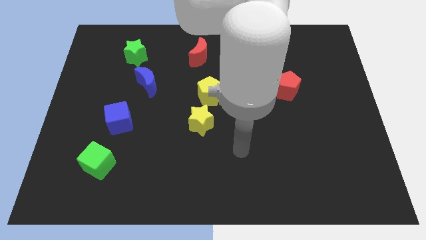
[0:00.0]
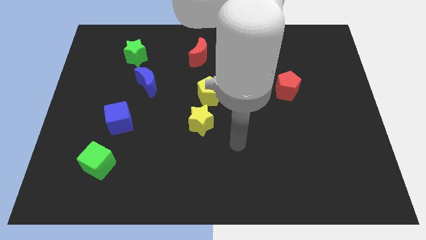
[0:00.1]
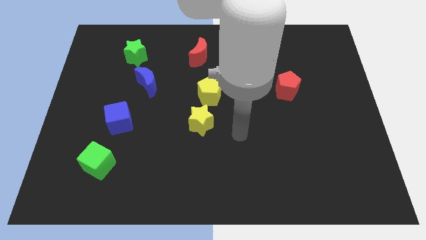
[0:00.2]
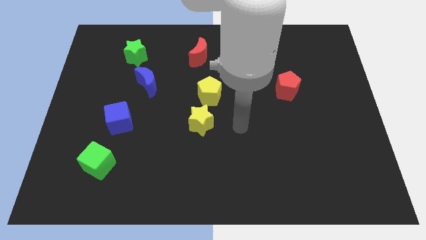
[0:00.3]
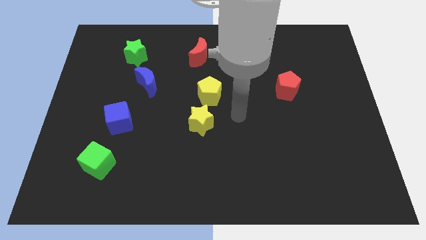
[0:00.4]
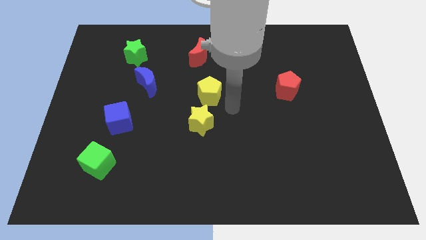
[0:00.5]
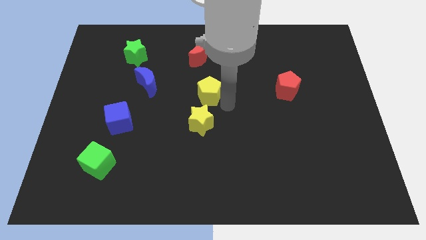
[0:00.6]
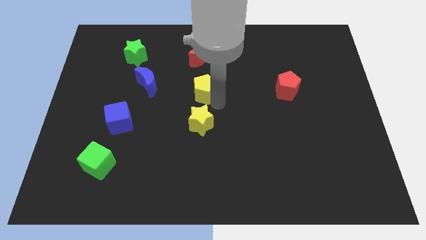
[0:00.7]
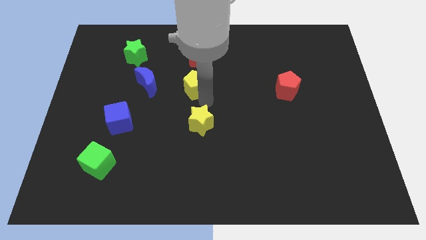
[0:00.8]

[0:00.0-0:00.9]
move the yellow star away from the yellow pentagon

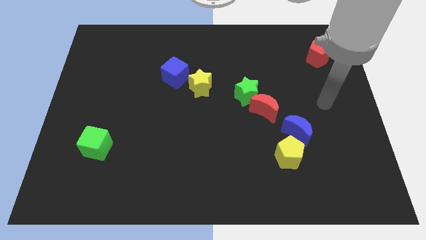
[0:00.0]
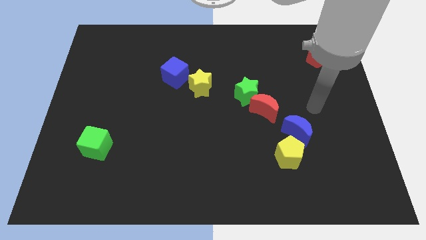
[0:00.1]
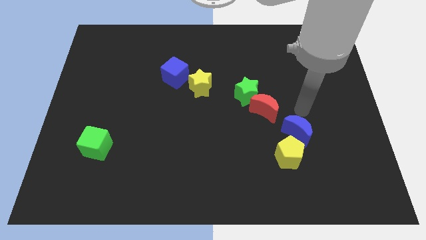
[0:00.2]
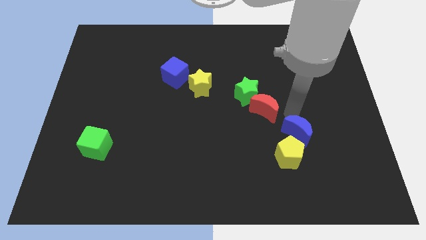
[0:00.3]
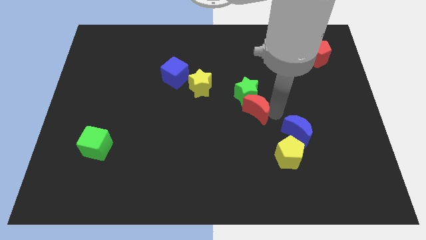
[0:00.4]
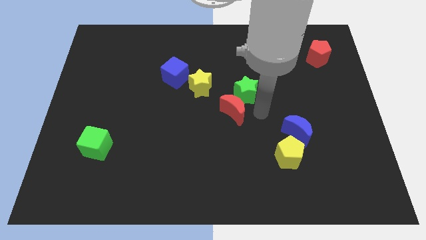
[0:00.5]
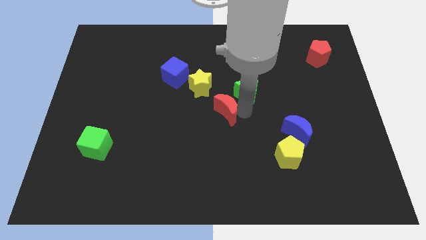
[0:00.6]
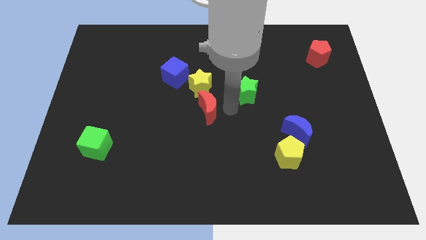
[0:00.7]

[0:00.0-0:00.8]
pull the green star apart from the red moon

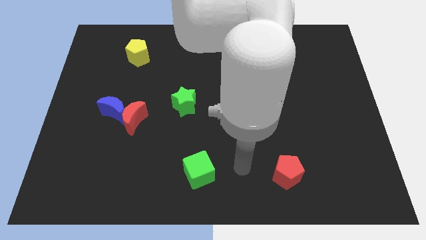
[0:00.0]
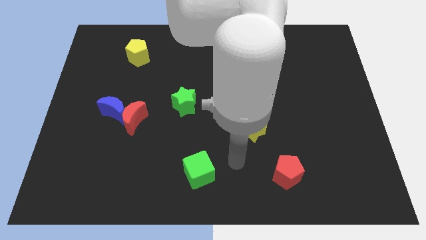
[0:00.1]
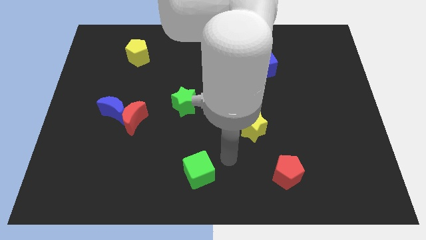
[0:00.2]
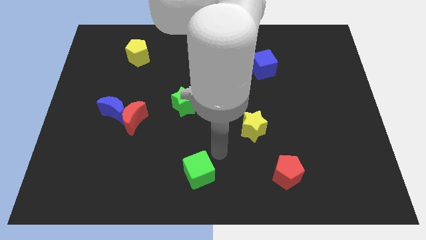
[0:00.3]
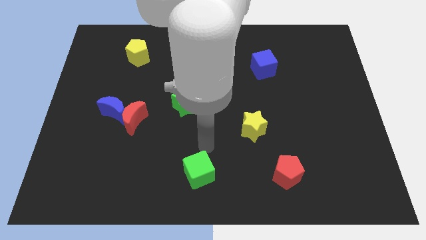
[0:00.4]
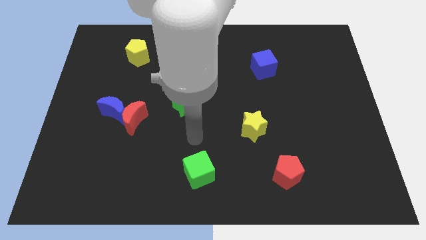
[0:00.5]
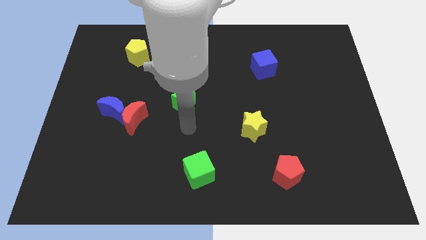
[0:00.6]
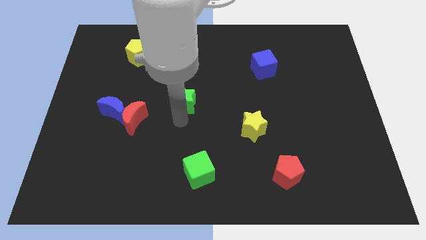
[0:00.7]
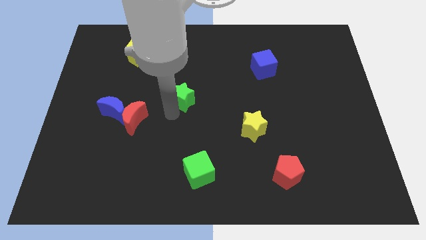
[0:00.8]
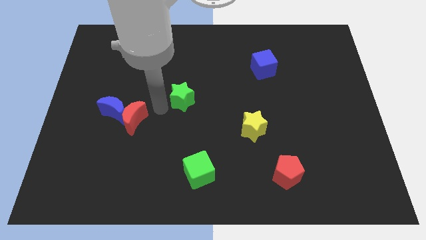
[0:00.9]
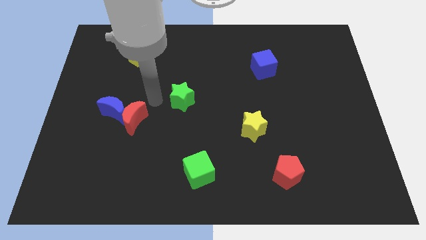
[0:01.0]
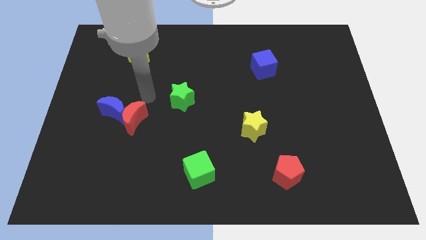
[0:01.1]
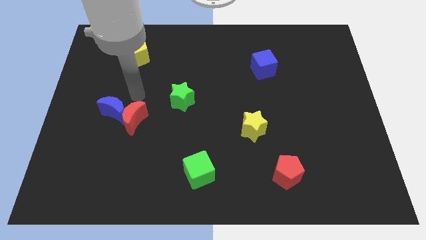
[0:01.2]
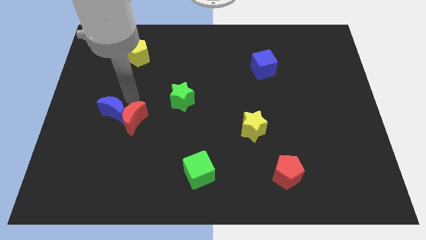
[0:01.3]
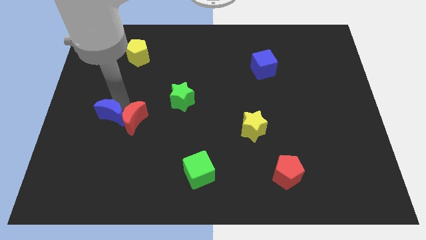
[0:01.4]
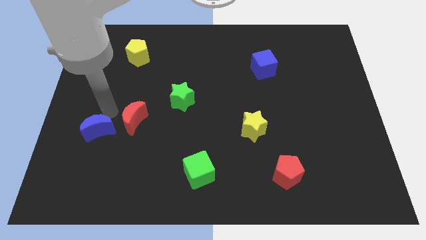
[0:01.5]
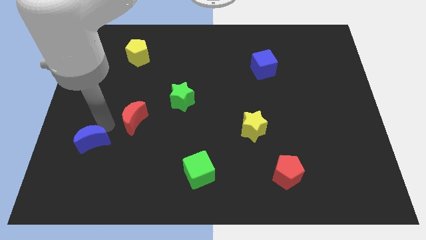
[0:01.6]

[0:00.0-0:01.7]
separate the red moon from the blue moon

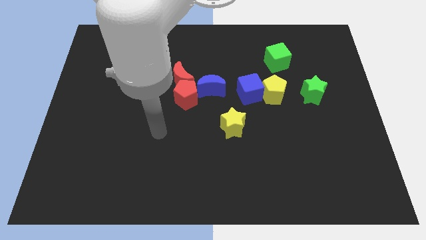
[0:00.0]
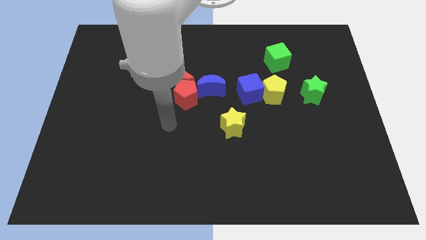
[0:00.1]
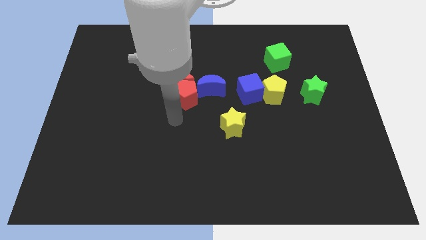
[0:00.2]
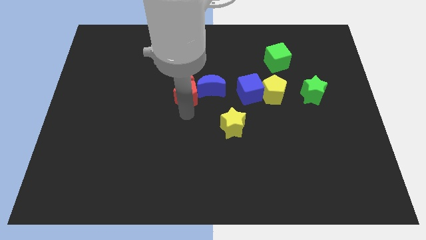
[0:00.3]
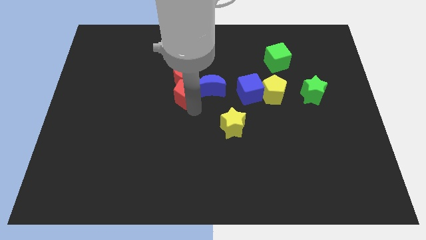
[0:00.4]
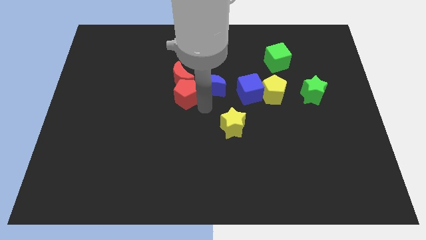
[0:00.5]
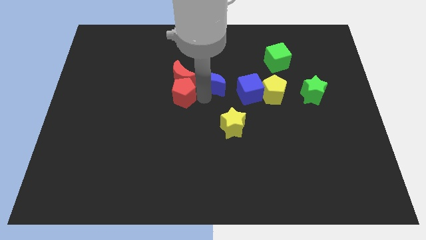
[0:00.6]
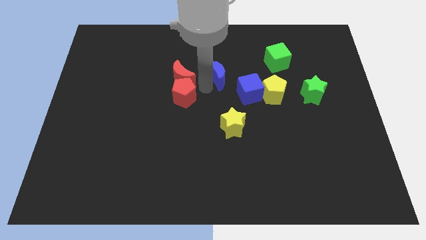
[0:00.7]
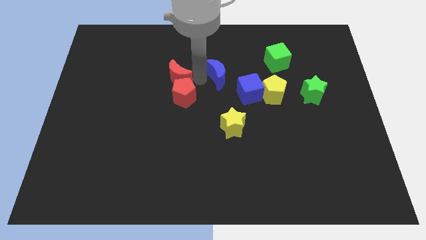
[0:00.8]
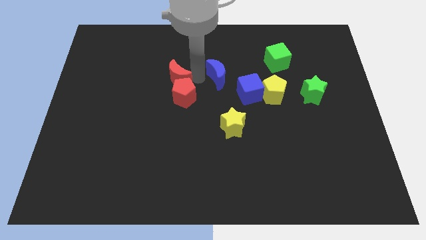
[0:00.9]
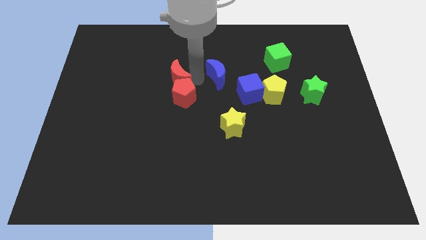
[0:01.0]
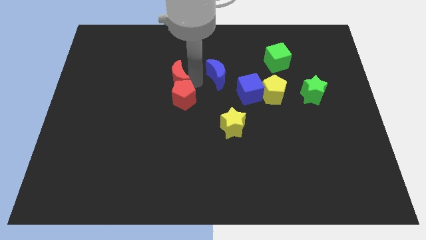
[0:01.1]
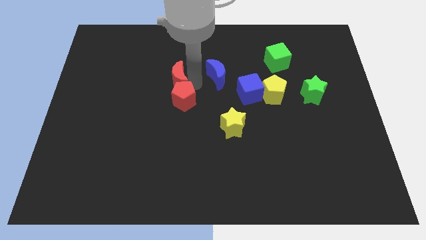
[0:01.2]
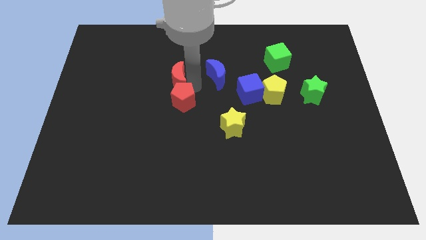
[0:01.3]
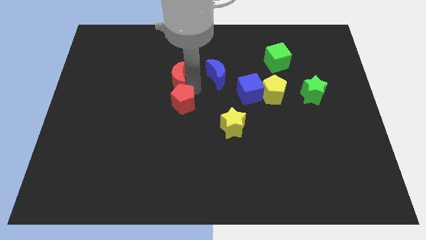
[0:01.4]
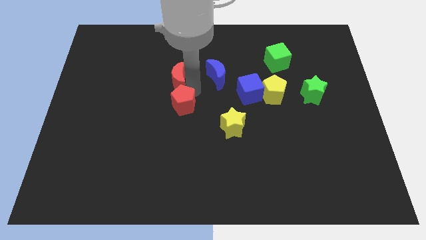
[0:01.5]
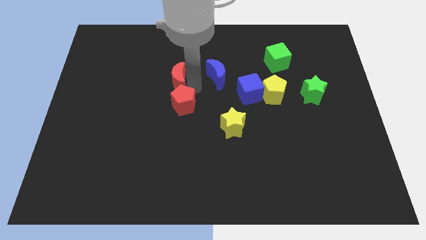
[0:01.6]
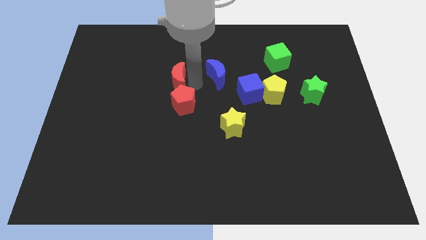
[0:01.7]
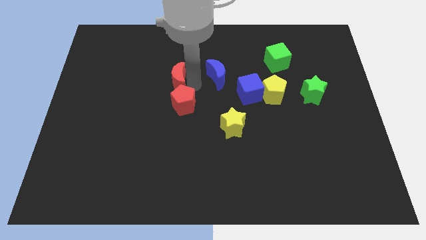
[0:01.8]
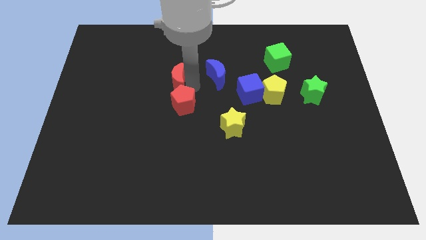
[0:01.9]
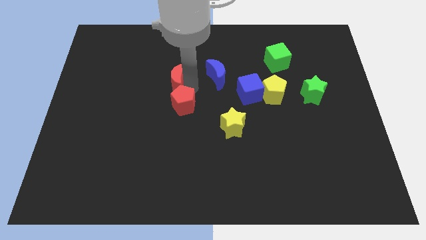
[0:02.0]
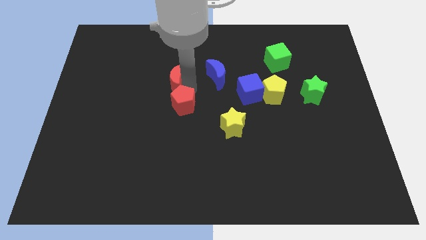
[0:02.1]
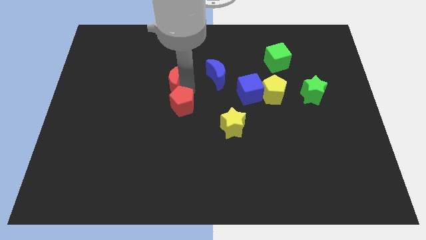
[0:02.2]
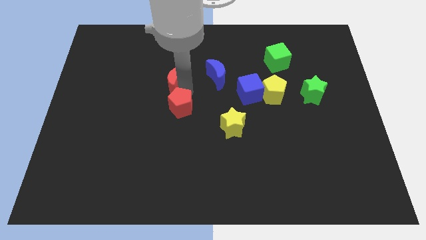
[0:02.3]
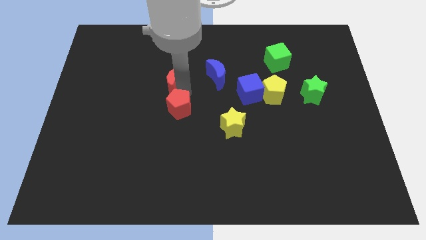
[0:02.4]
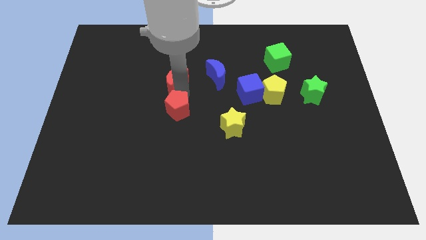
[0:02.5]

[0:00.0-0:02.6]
move the red pentagon away from the red moon and blue moon

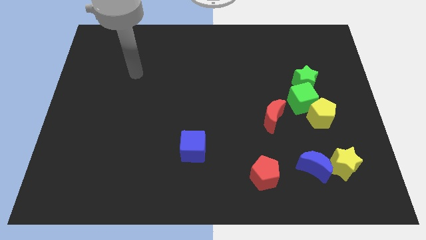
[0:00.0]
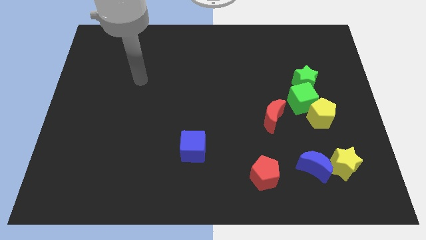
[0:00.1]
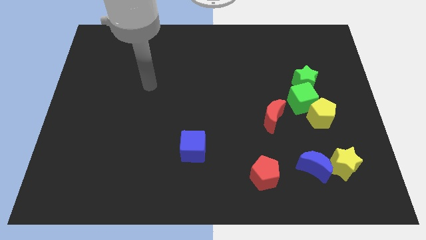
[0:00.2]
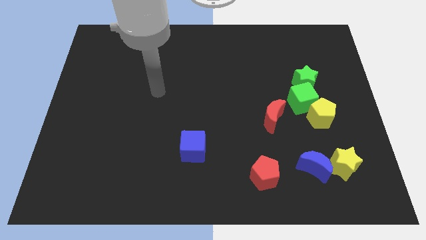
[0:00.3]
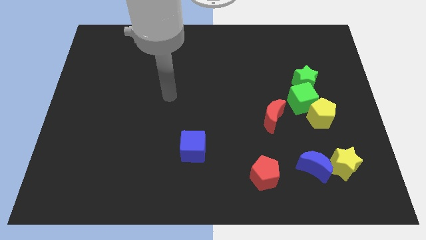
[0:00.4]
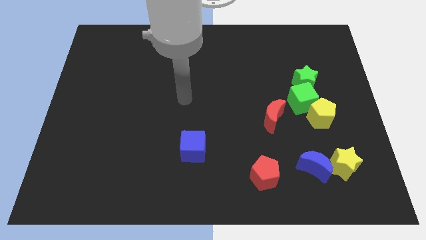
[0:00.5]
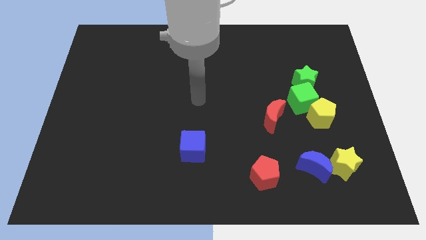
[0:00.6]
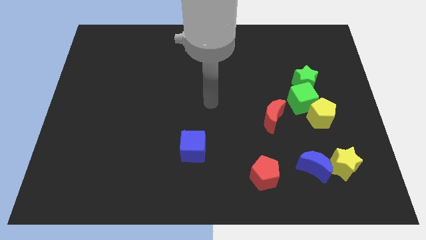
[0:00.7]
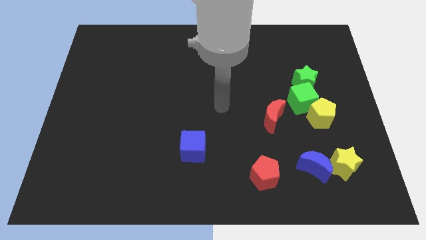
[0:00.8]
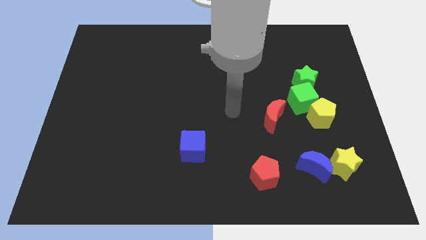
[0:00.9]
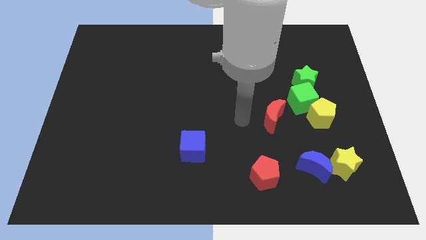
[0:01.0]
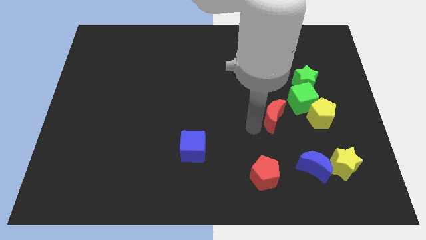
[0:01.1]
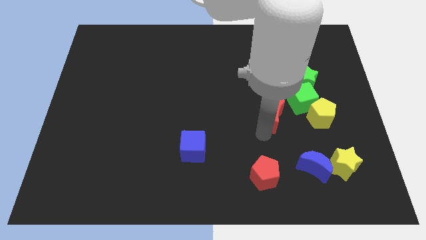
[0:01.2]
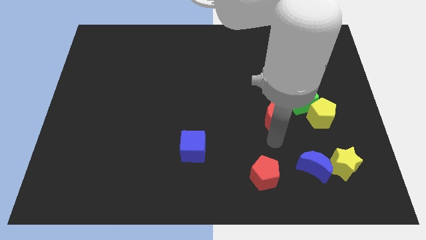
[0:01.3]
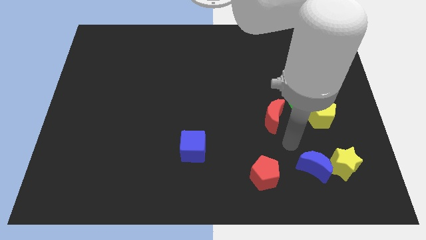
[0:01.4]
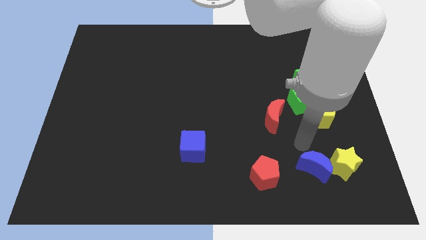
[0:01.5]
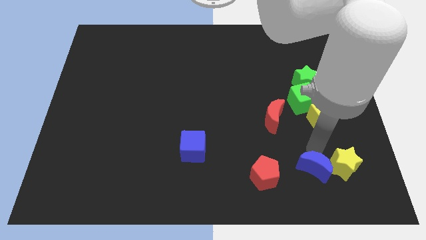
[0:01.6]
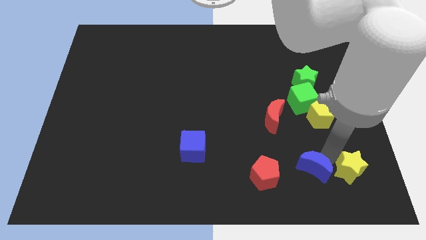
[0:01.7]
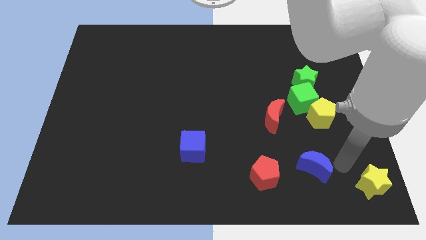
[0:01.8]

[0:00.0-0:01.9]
pull the blue moon apart from the yellow star

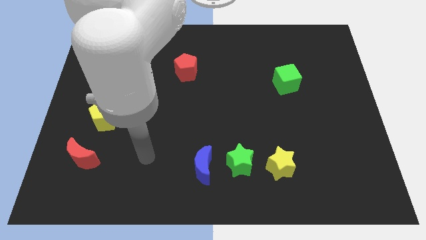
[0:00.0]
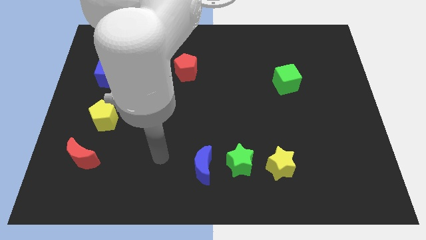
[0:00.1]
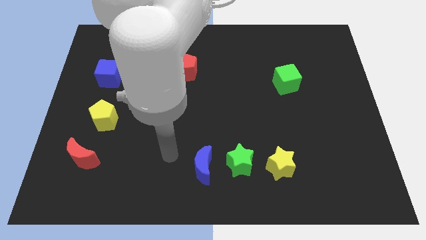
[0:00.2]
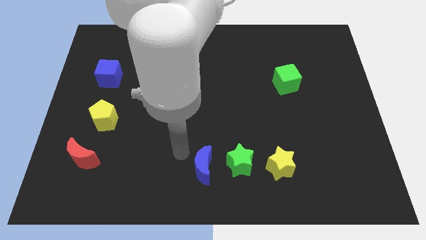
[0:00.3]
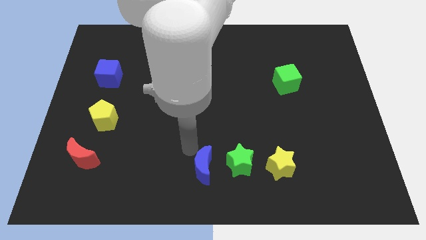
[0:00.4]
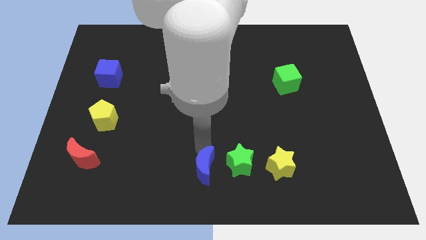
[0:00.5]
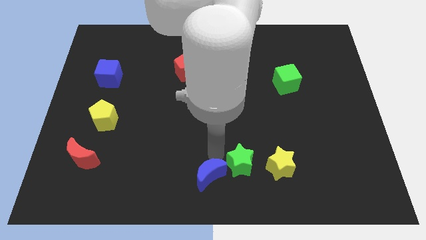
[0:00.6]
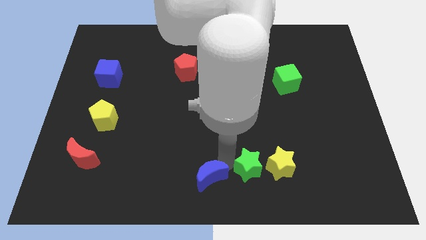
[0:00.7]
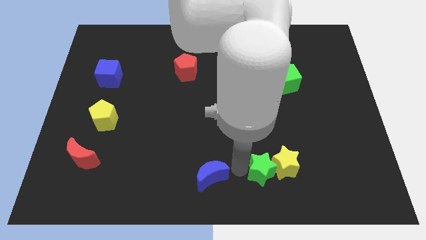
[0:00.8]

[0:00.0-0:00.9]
pull the blue moon apart from the green star

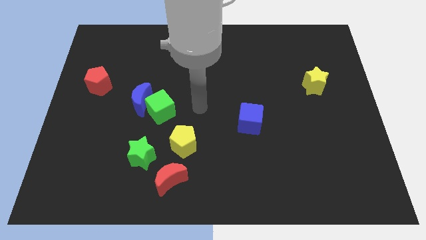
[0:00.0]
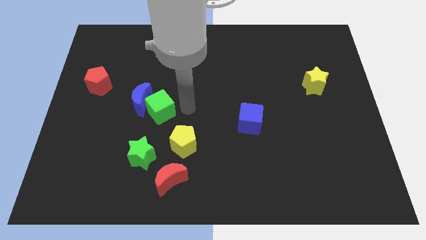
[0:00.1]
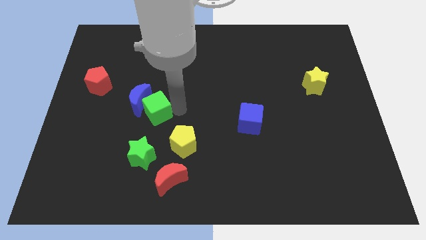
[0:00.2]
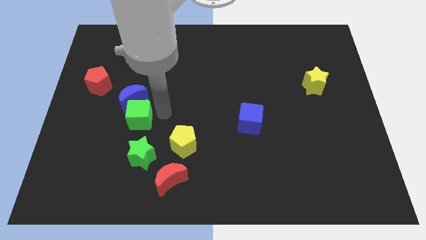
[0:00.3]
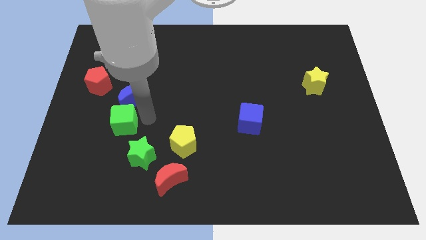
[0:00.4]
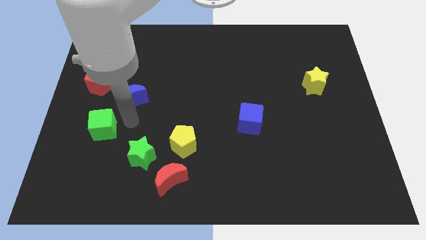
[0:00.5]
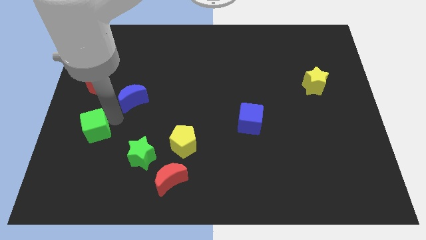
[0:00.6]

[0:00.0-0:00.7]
pull the blue moon apart from the green cube
